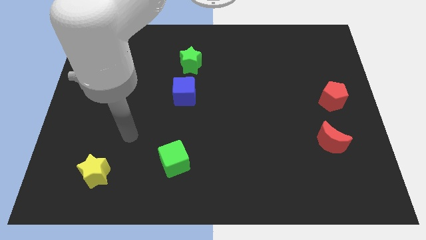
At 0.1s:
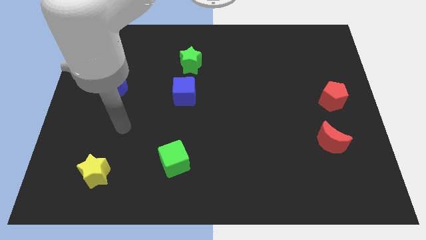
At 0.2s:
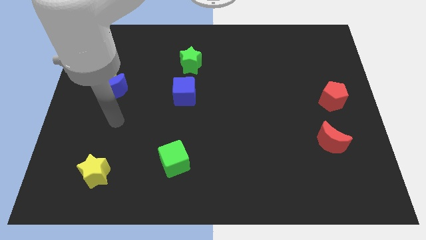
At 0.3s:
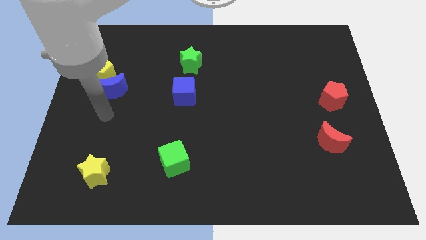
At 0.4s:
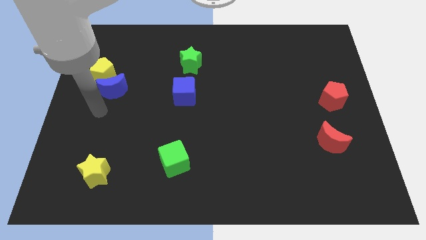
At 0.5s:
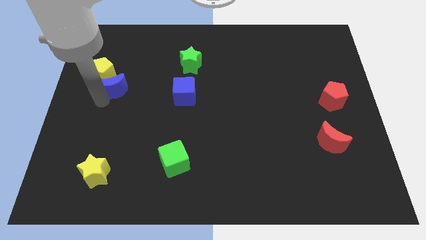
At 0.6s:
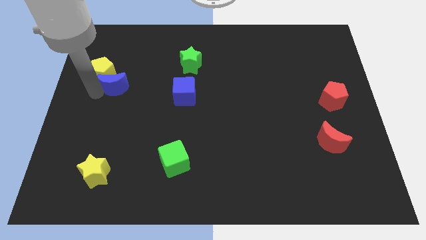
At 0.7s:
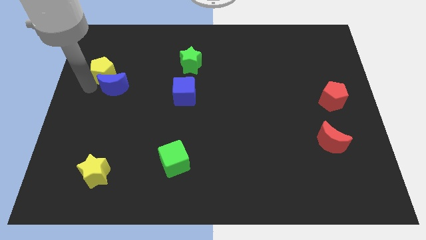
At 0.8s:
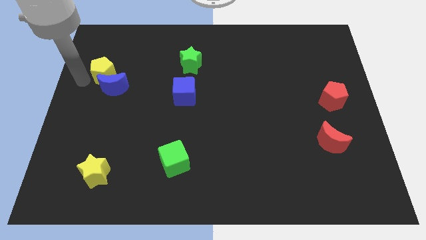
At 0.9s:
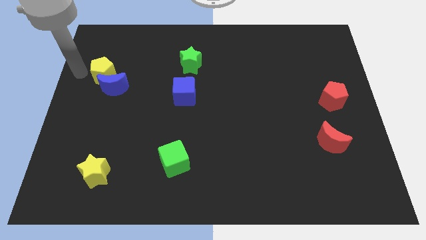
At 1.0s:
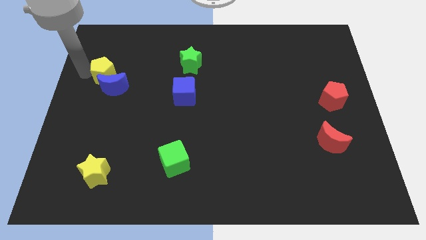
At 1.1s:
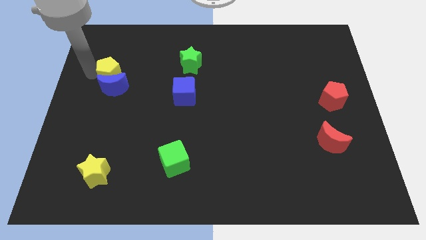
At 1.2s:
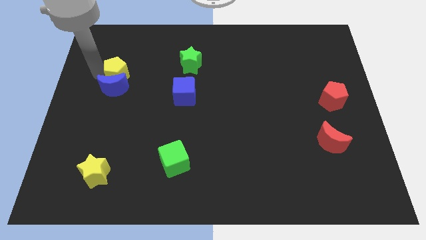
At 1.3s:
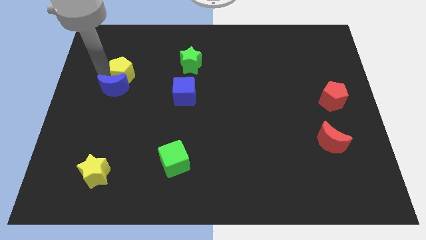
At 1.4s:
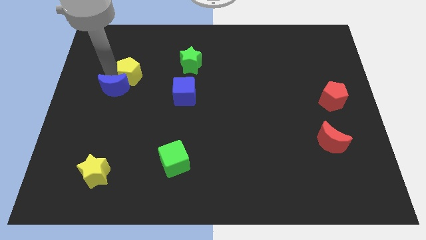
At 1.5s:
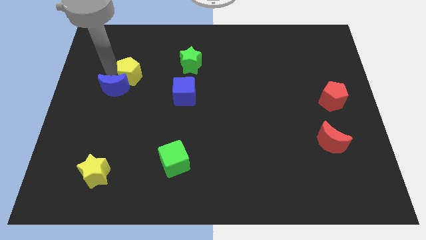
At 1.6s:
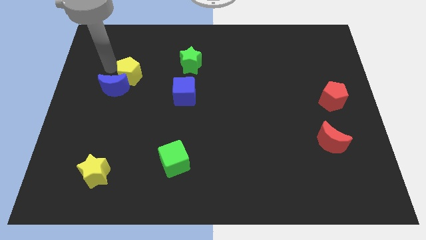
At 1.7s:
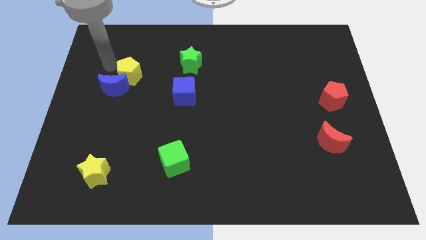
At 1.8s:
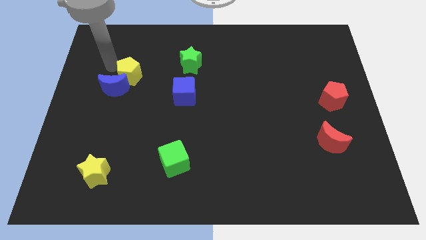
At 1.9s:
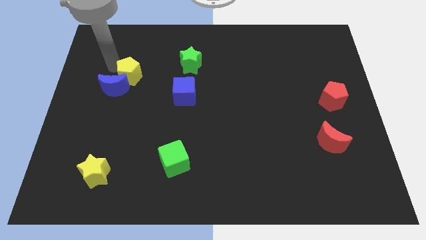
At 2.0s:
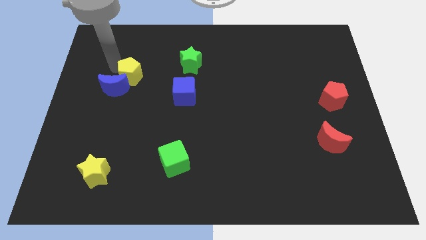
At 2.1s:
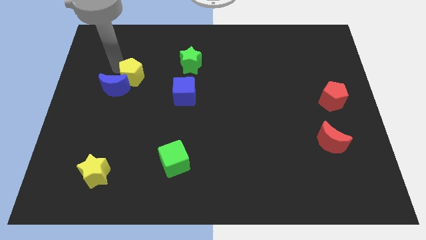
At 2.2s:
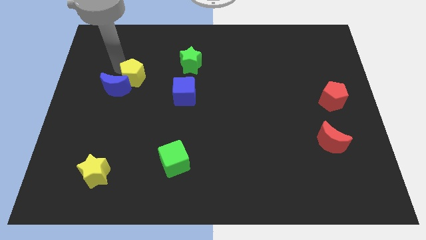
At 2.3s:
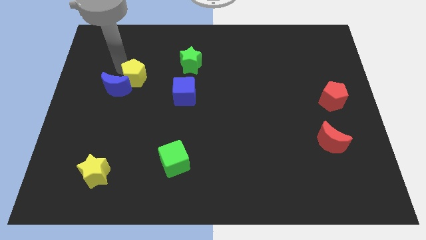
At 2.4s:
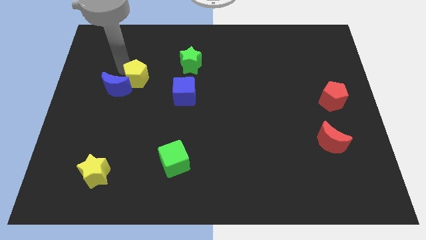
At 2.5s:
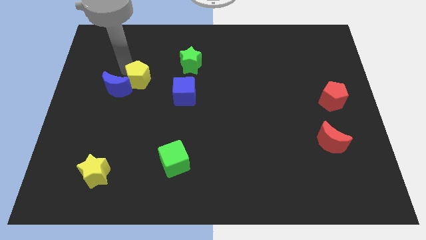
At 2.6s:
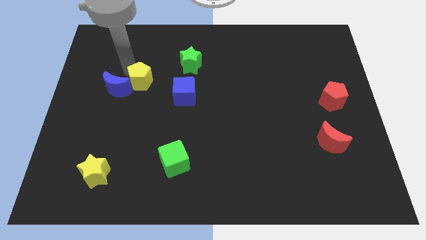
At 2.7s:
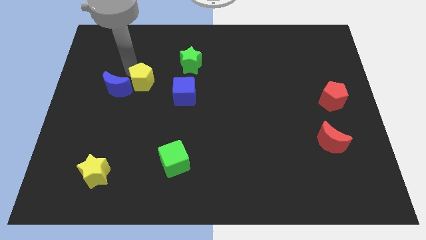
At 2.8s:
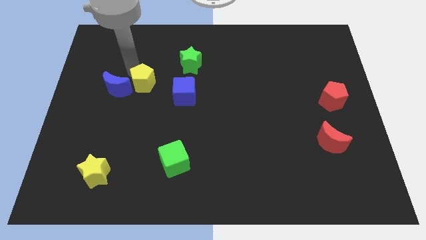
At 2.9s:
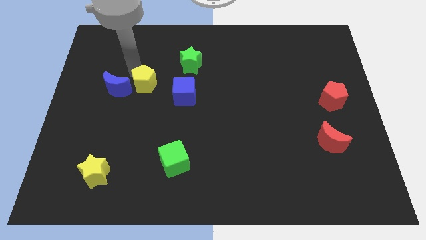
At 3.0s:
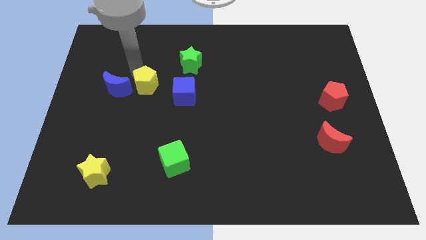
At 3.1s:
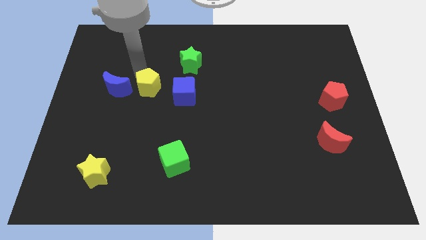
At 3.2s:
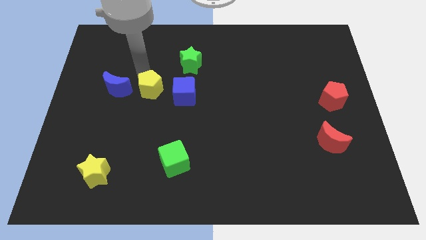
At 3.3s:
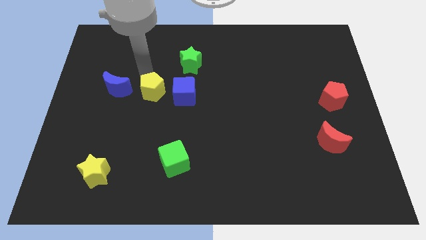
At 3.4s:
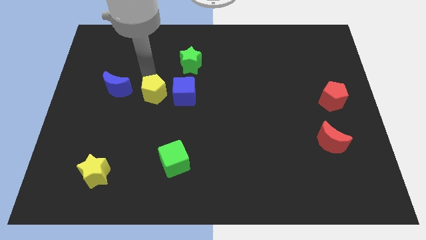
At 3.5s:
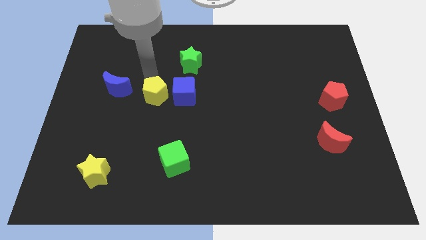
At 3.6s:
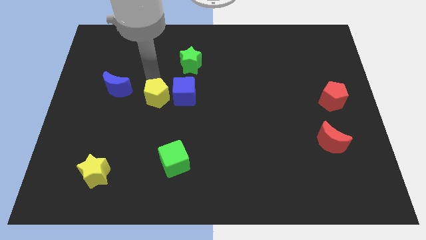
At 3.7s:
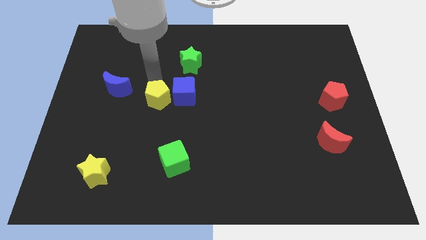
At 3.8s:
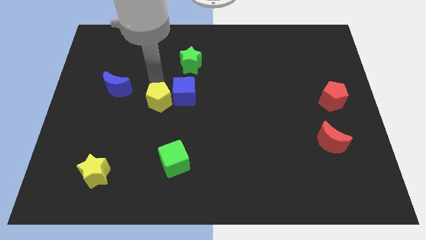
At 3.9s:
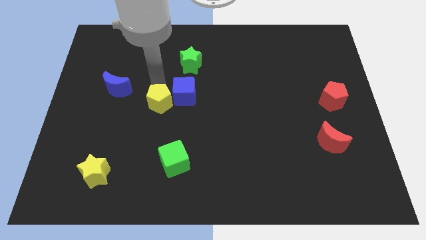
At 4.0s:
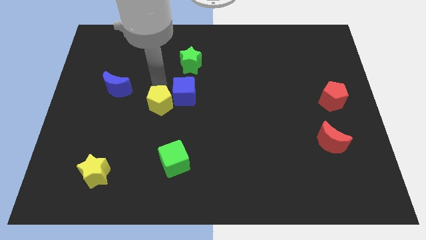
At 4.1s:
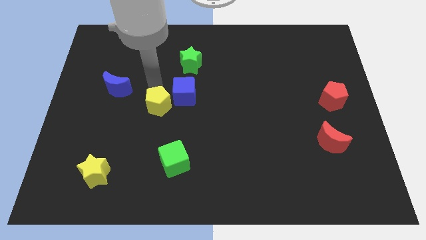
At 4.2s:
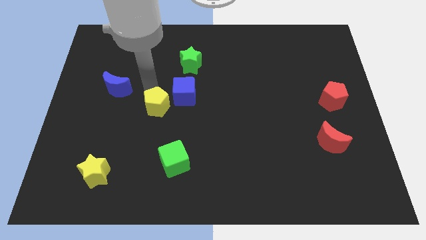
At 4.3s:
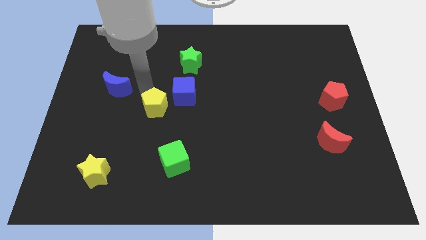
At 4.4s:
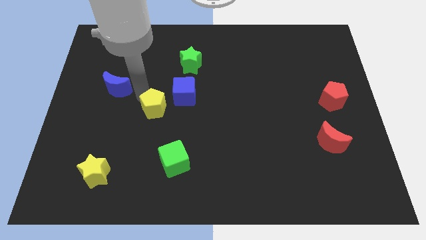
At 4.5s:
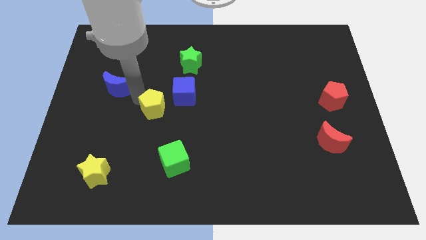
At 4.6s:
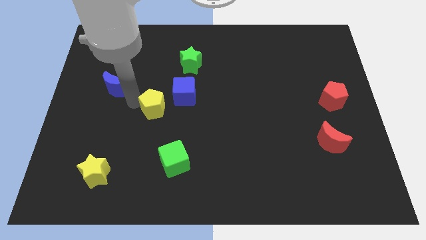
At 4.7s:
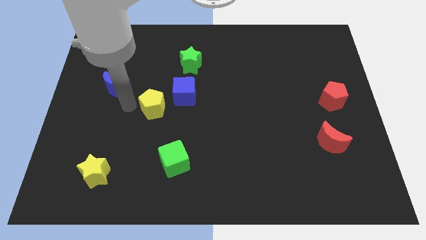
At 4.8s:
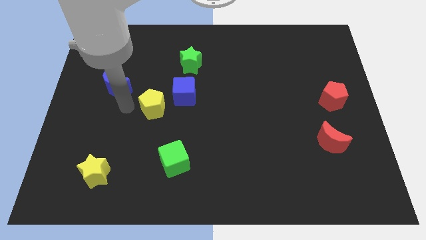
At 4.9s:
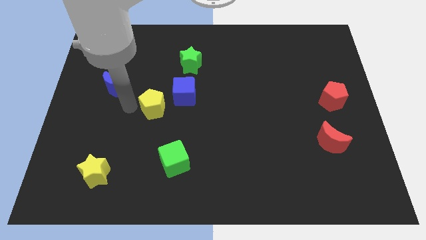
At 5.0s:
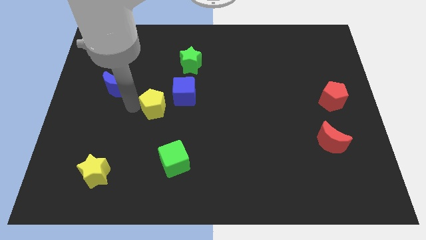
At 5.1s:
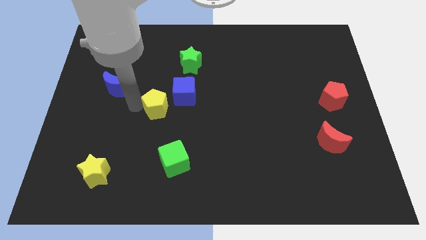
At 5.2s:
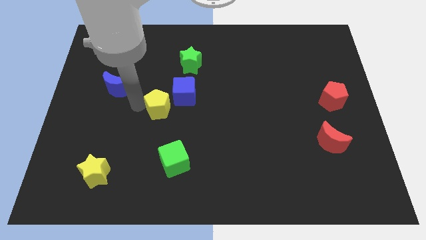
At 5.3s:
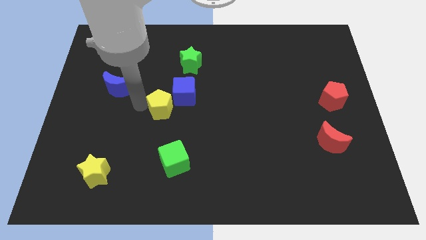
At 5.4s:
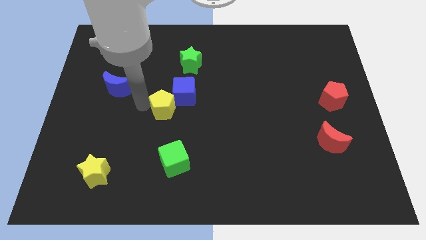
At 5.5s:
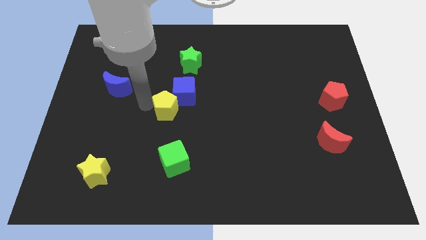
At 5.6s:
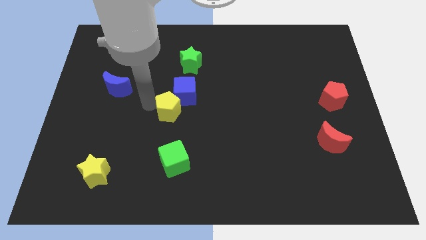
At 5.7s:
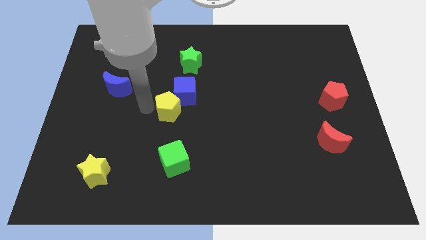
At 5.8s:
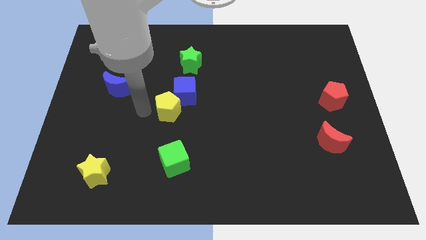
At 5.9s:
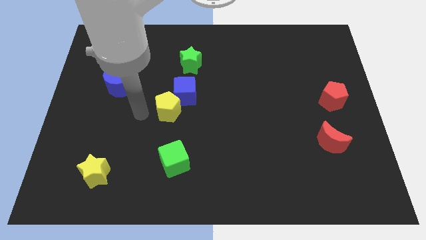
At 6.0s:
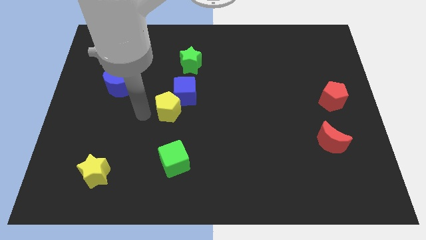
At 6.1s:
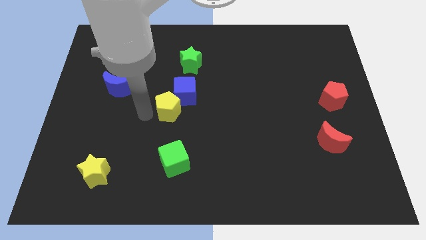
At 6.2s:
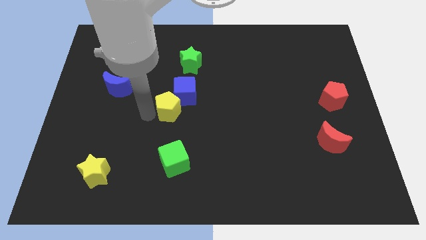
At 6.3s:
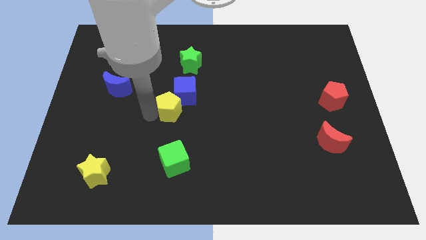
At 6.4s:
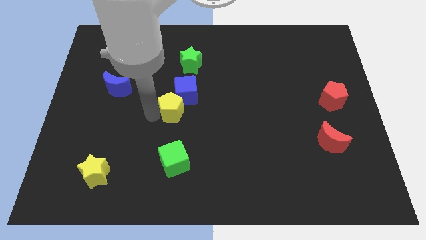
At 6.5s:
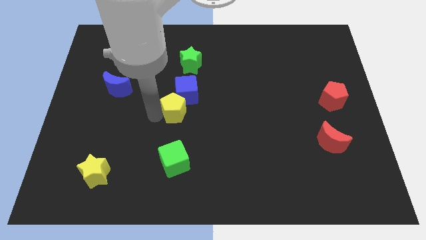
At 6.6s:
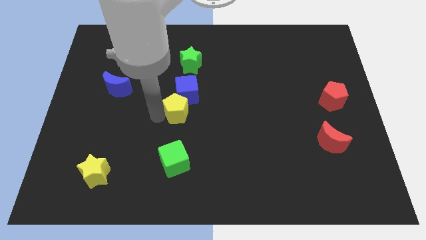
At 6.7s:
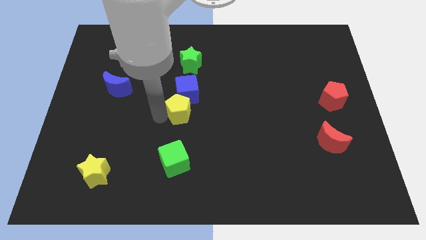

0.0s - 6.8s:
put the yellow pentagon below the green star
